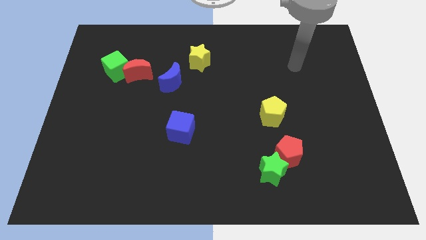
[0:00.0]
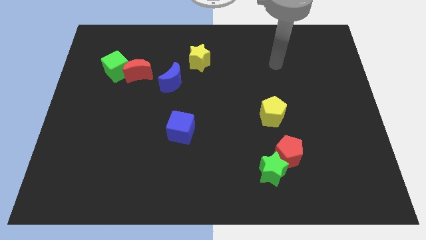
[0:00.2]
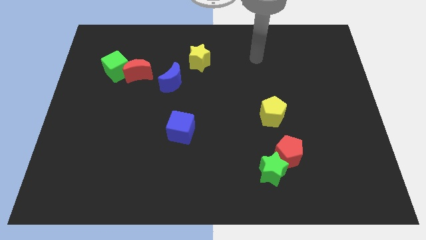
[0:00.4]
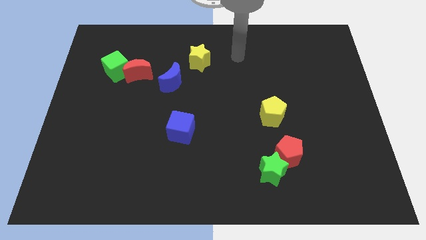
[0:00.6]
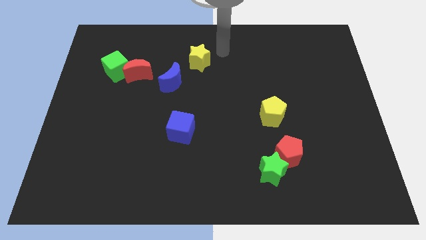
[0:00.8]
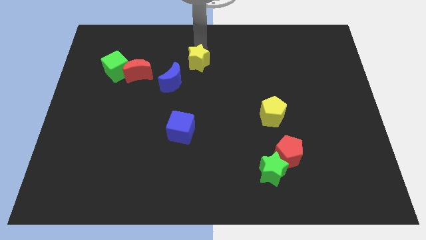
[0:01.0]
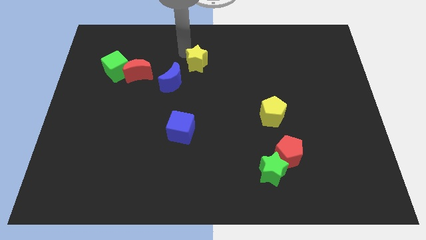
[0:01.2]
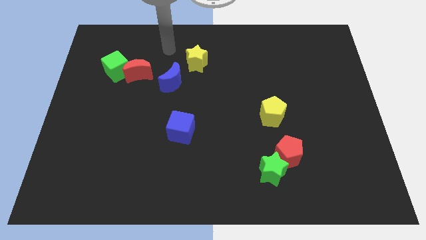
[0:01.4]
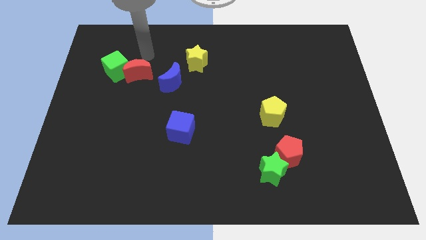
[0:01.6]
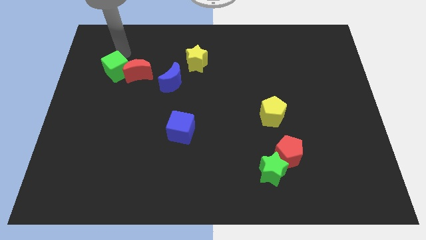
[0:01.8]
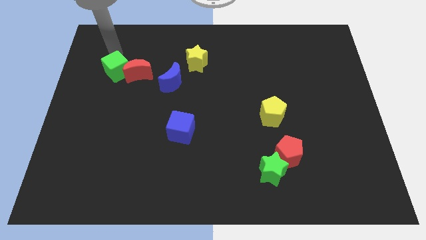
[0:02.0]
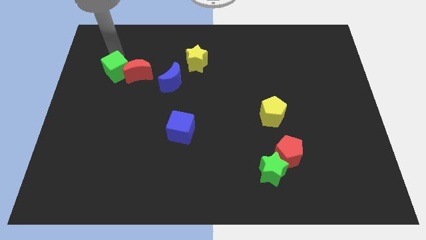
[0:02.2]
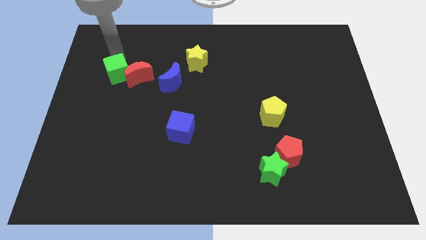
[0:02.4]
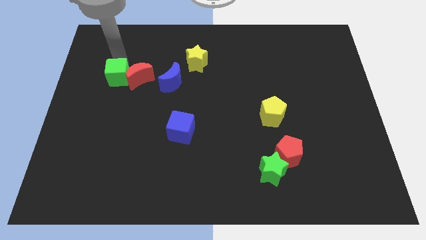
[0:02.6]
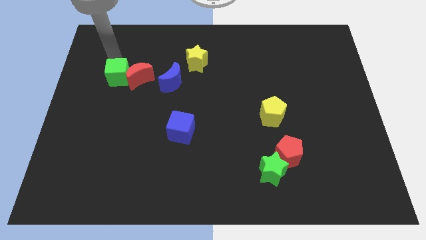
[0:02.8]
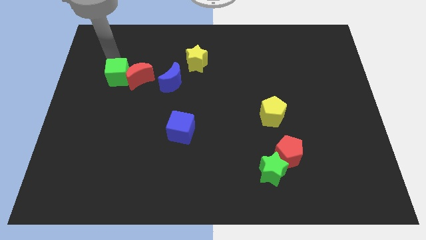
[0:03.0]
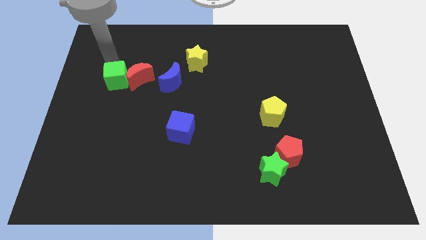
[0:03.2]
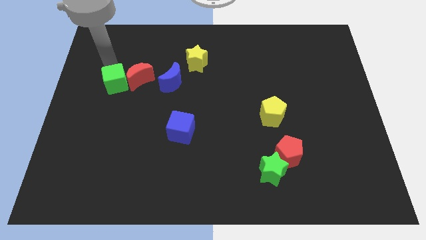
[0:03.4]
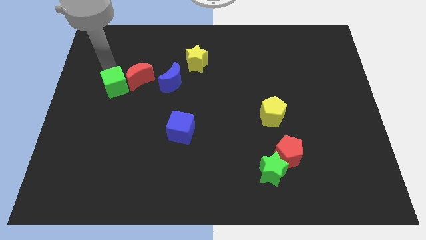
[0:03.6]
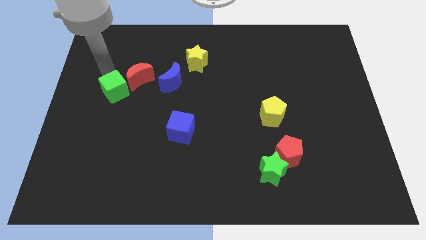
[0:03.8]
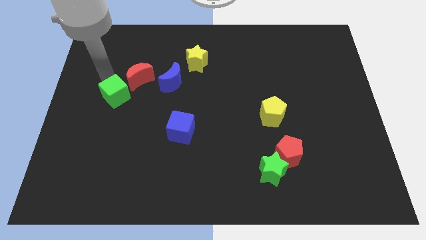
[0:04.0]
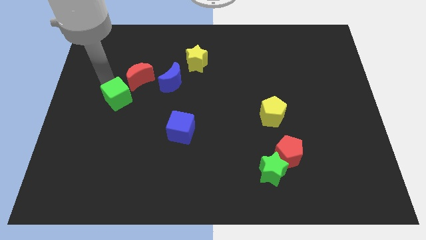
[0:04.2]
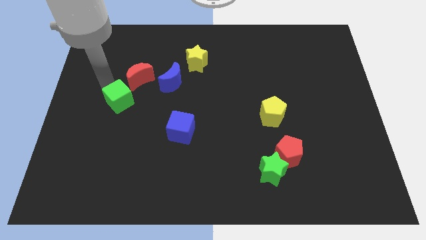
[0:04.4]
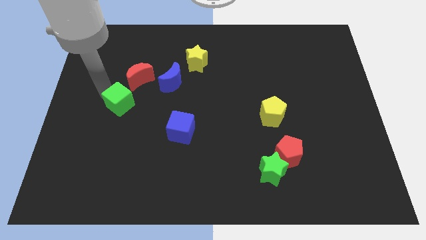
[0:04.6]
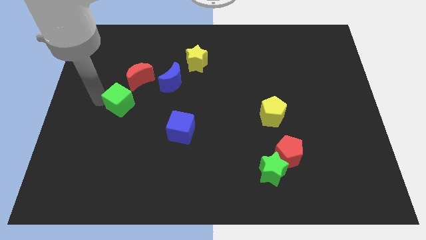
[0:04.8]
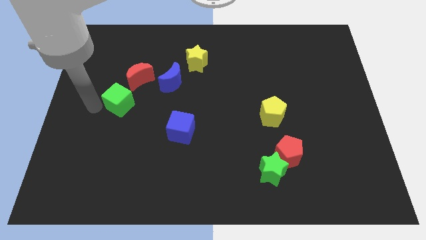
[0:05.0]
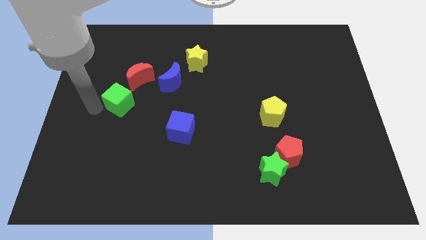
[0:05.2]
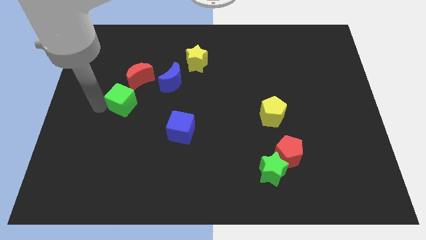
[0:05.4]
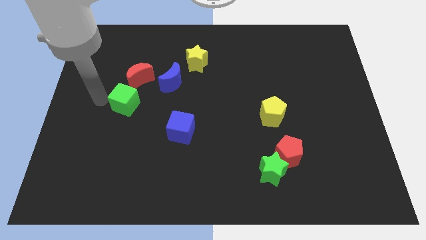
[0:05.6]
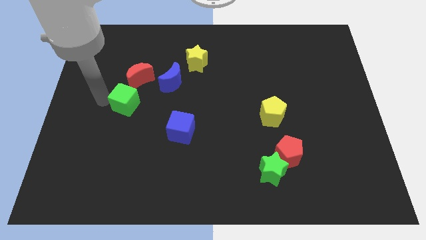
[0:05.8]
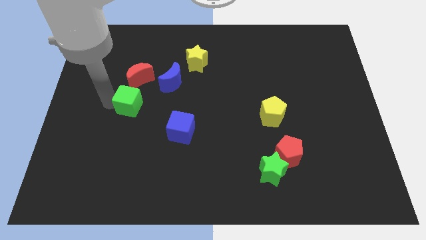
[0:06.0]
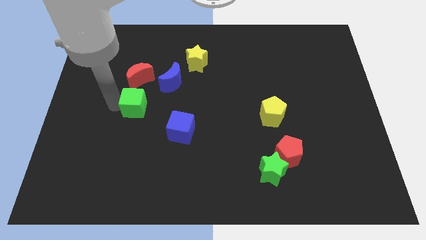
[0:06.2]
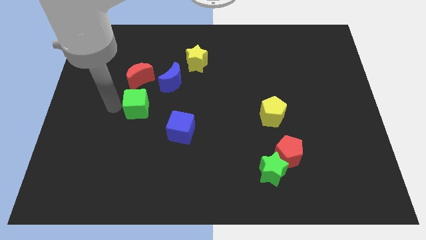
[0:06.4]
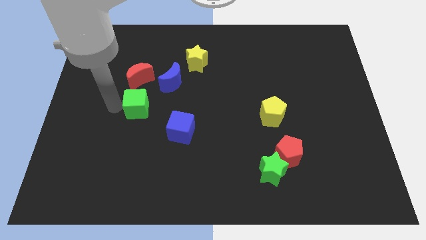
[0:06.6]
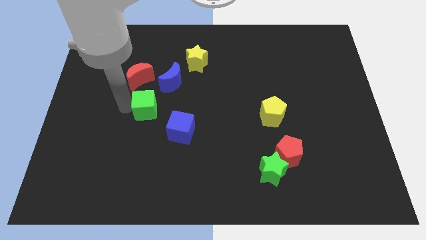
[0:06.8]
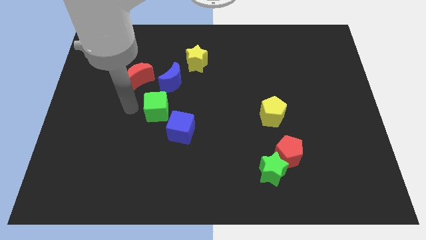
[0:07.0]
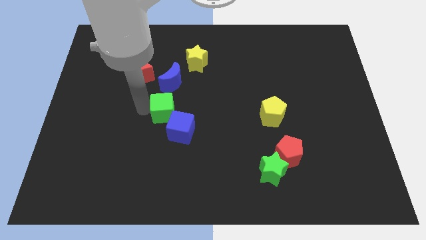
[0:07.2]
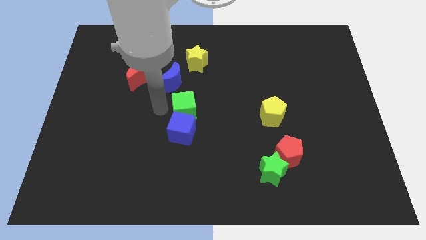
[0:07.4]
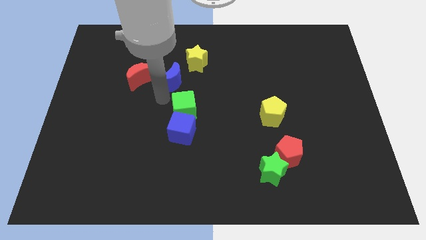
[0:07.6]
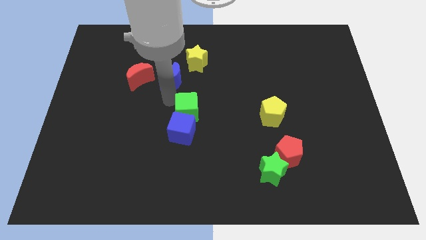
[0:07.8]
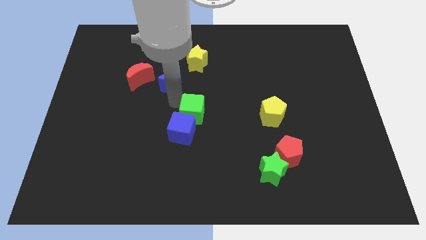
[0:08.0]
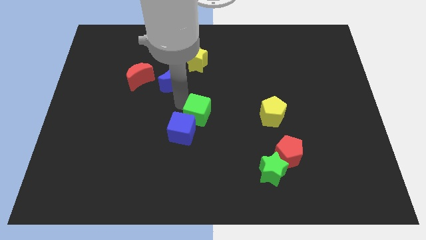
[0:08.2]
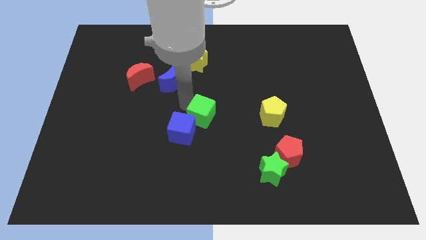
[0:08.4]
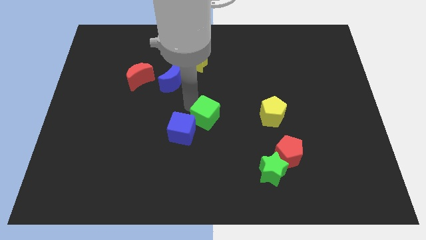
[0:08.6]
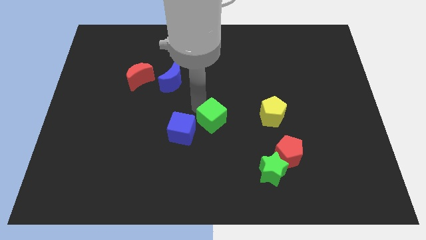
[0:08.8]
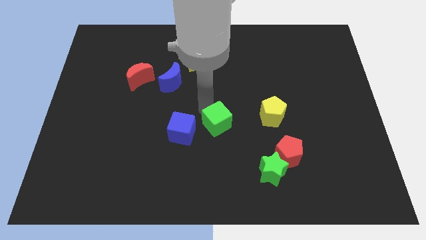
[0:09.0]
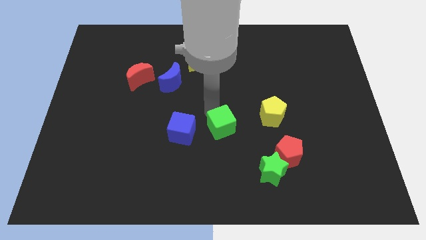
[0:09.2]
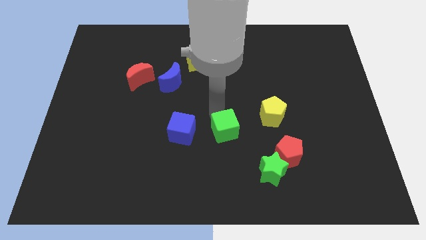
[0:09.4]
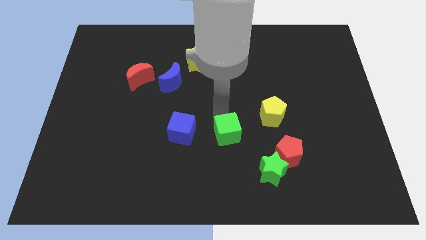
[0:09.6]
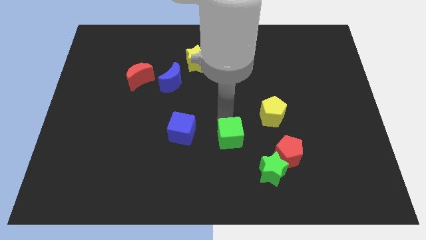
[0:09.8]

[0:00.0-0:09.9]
put the green cube to the left of the red pentagon

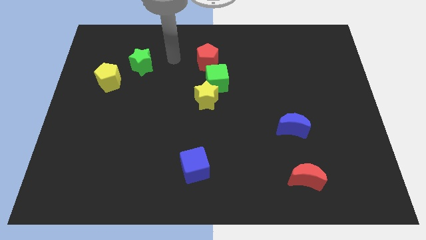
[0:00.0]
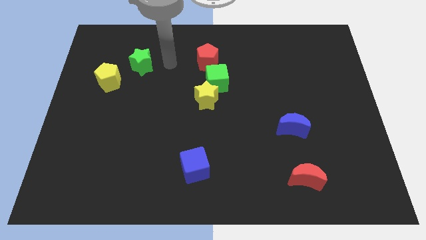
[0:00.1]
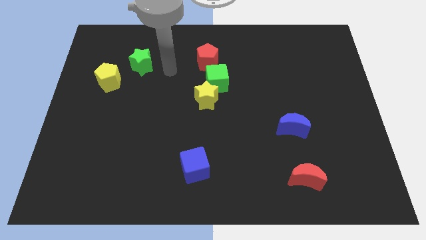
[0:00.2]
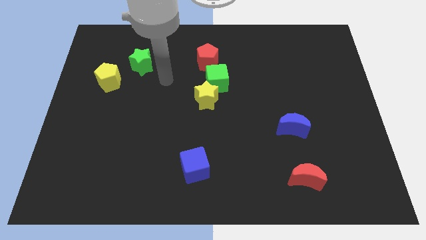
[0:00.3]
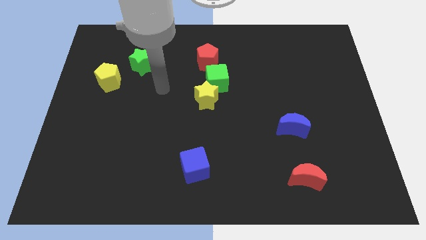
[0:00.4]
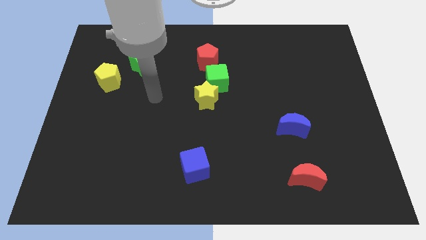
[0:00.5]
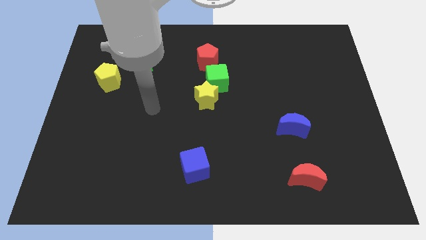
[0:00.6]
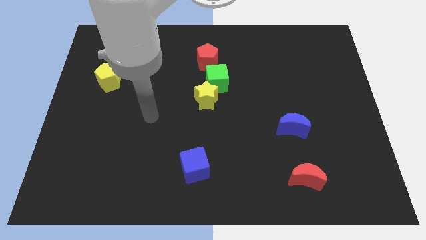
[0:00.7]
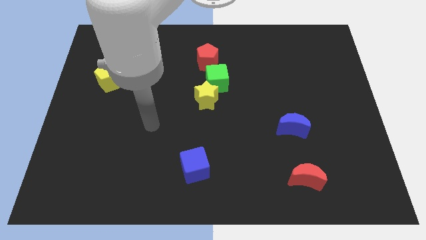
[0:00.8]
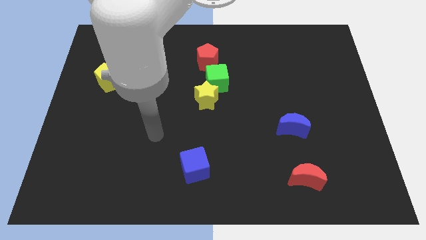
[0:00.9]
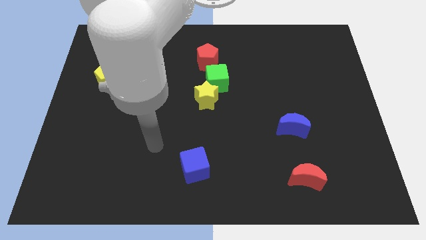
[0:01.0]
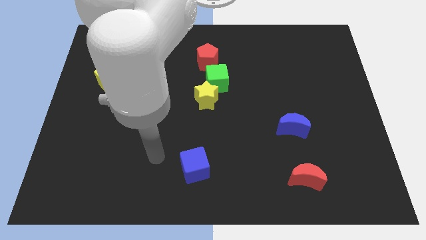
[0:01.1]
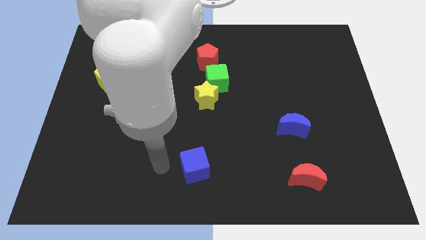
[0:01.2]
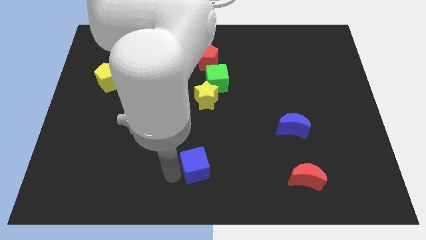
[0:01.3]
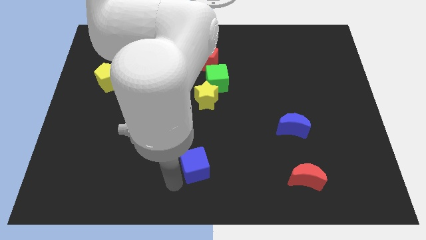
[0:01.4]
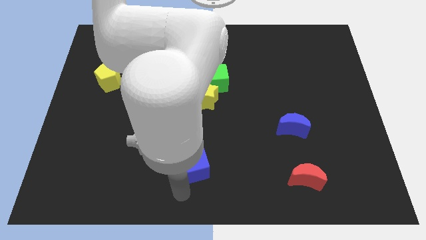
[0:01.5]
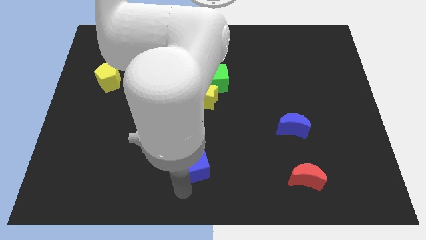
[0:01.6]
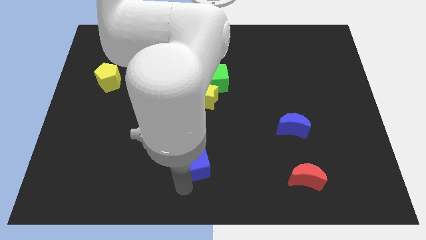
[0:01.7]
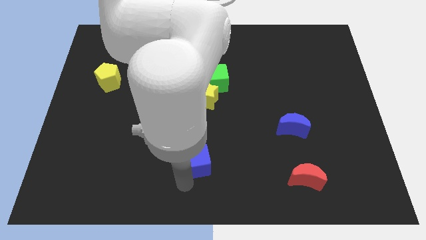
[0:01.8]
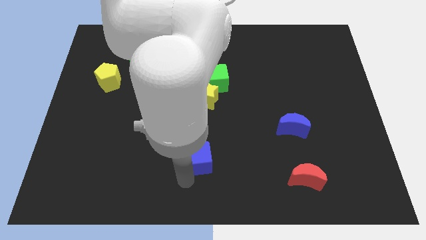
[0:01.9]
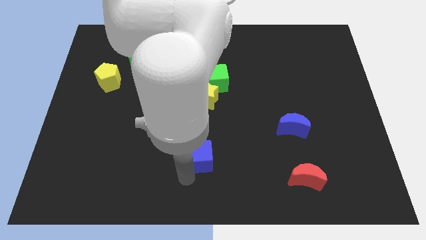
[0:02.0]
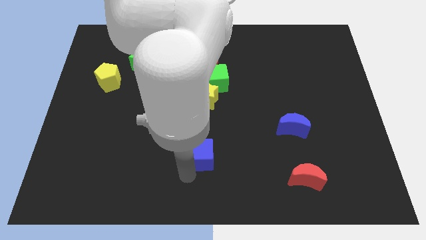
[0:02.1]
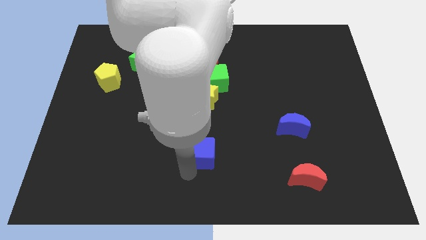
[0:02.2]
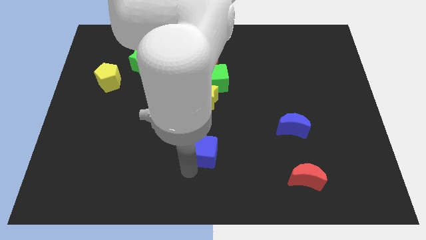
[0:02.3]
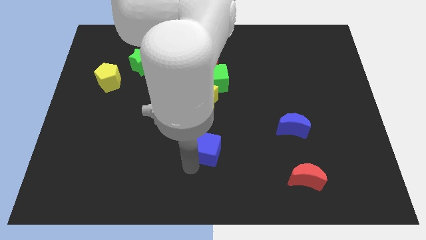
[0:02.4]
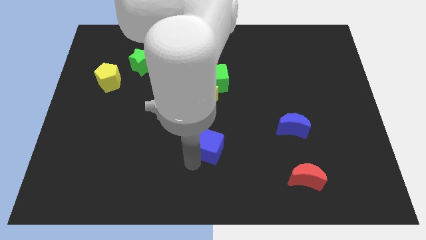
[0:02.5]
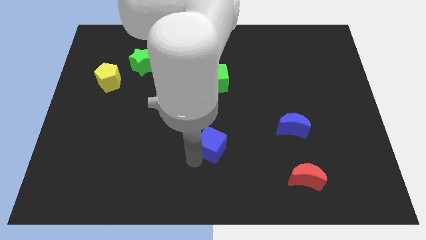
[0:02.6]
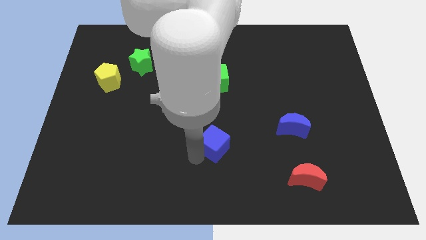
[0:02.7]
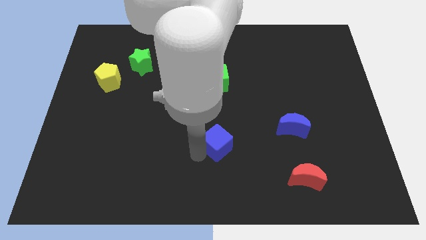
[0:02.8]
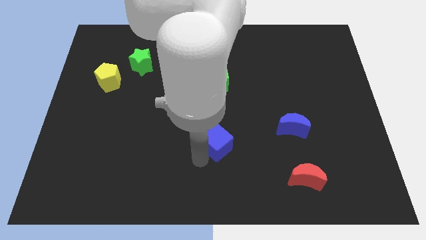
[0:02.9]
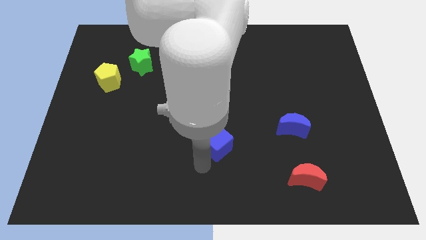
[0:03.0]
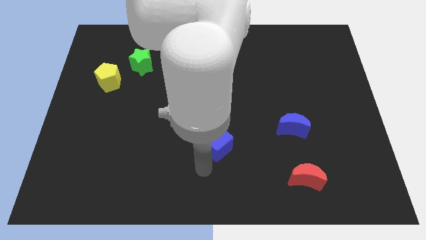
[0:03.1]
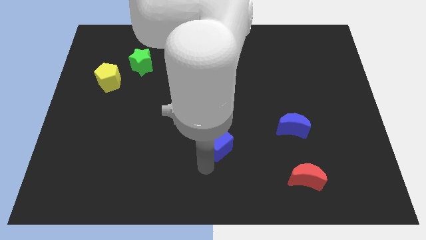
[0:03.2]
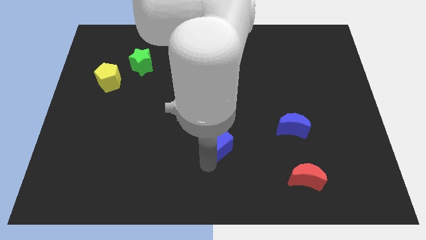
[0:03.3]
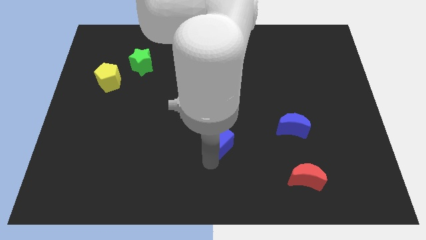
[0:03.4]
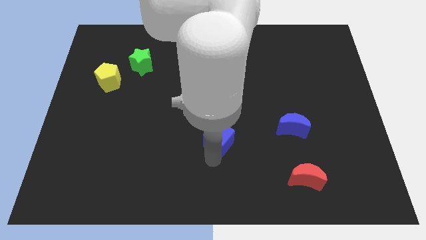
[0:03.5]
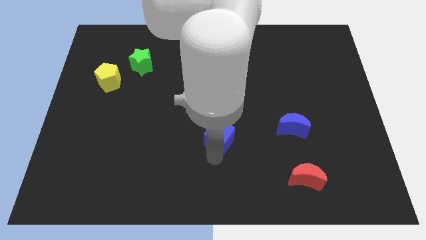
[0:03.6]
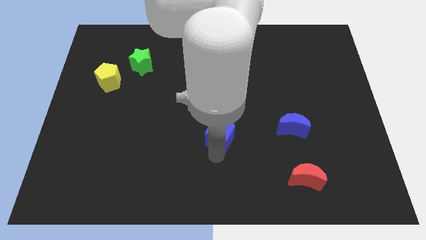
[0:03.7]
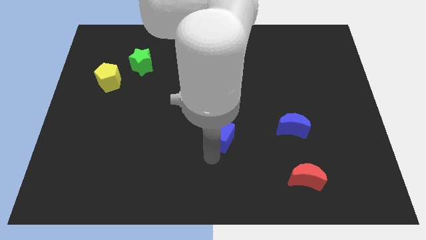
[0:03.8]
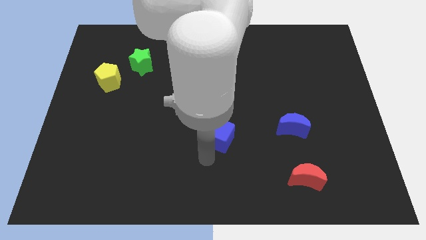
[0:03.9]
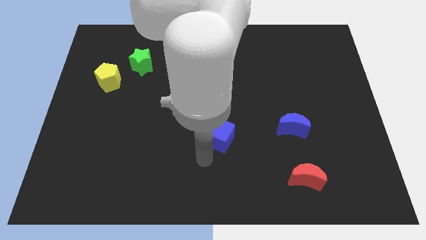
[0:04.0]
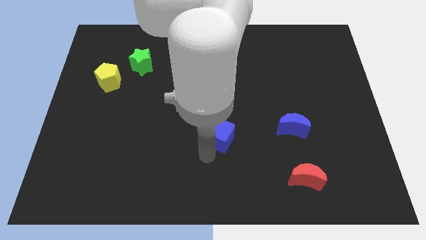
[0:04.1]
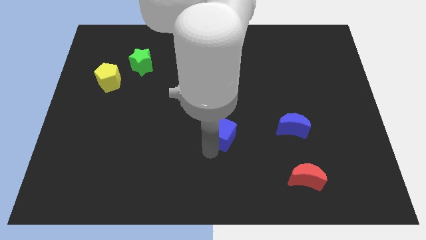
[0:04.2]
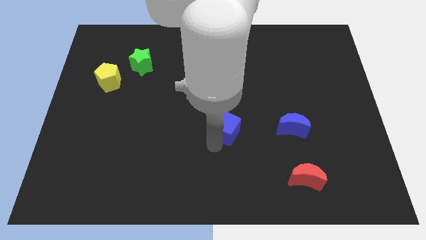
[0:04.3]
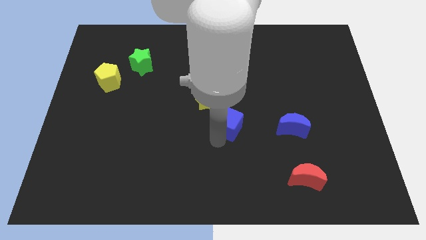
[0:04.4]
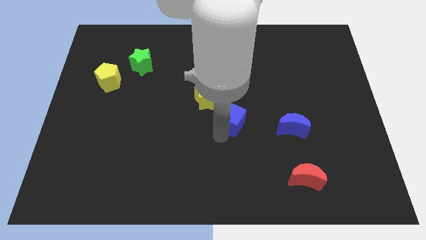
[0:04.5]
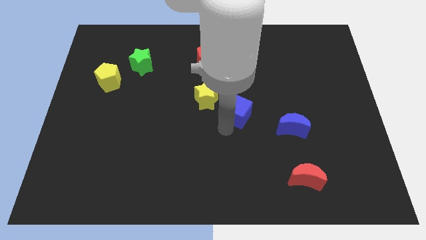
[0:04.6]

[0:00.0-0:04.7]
slide the blue cube to the right side of the yellow star
